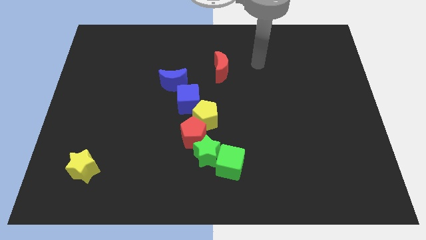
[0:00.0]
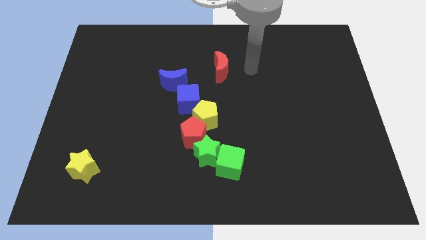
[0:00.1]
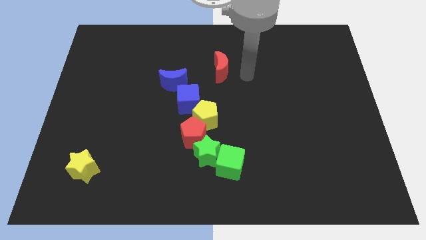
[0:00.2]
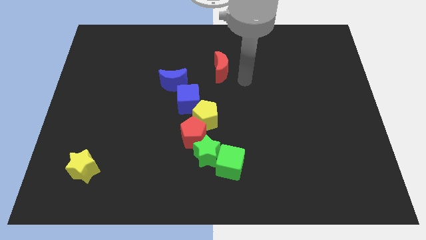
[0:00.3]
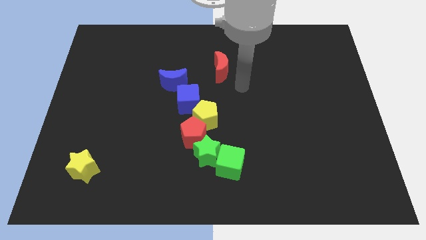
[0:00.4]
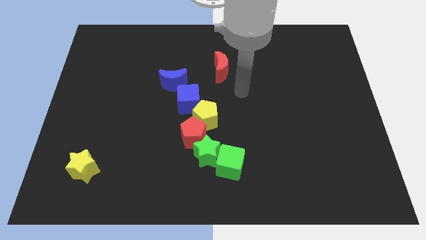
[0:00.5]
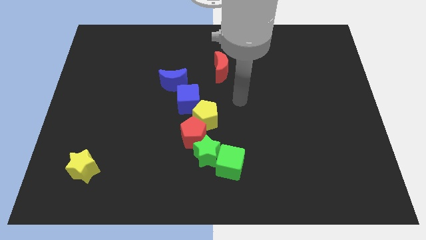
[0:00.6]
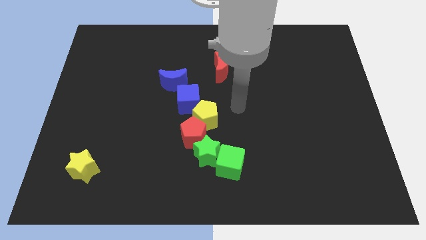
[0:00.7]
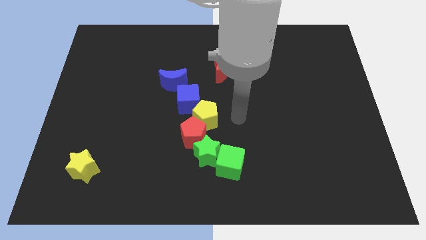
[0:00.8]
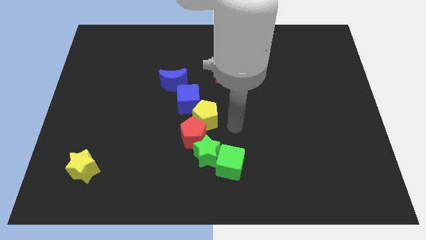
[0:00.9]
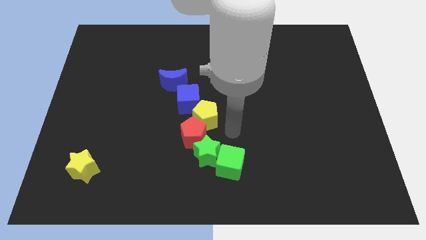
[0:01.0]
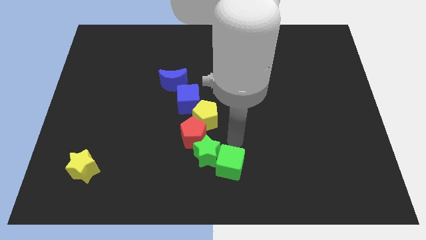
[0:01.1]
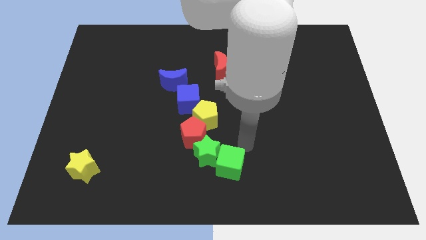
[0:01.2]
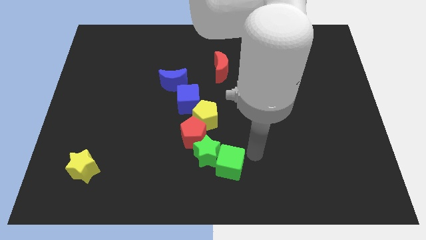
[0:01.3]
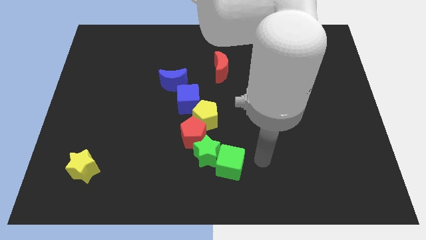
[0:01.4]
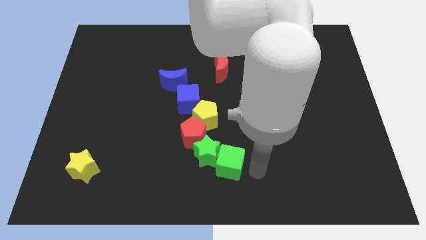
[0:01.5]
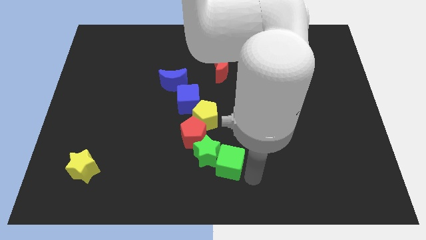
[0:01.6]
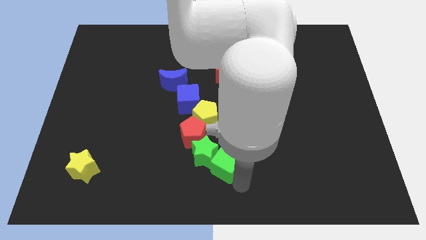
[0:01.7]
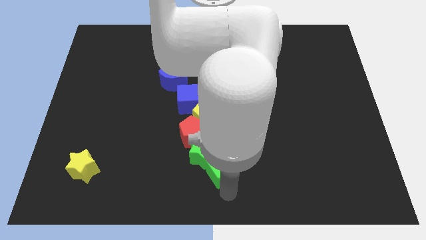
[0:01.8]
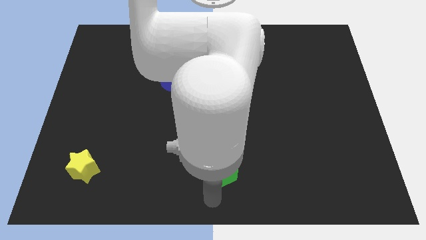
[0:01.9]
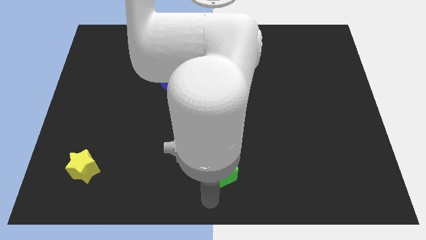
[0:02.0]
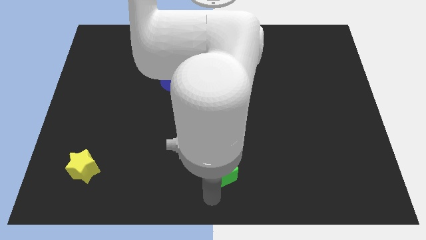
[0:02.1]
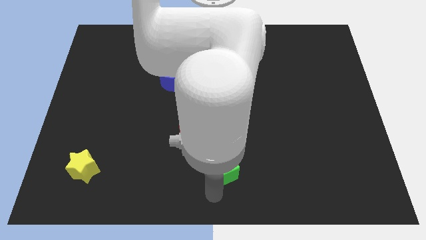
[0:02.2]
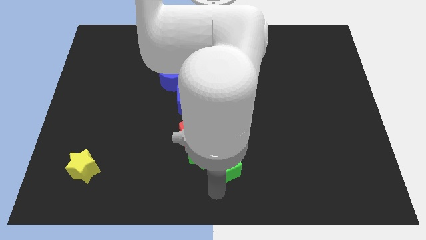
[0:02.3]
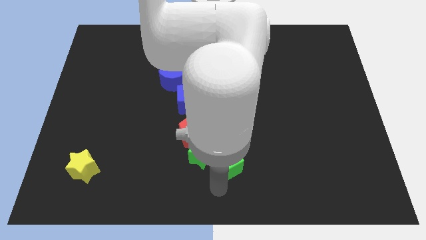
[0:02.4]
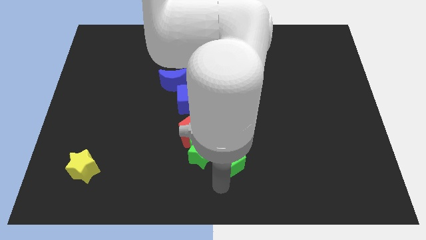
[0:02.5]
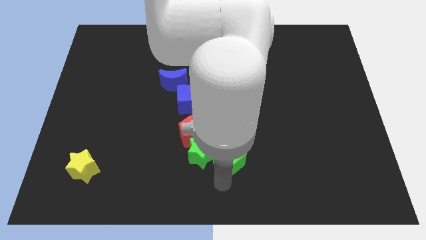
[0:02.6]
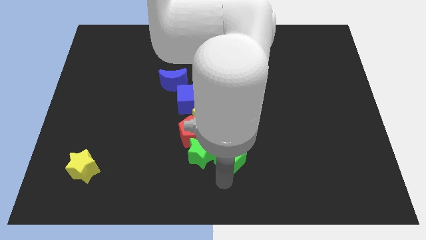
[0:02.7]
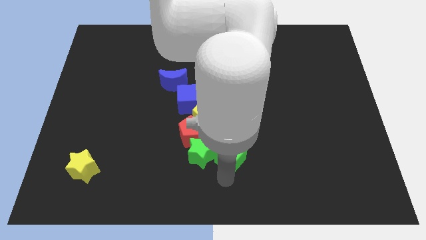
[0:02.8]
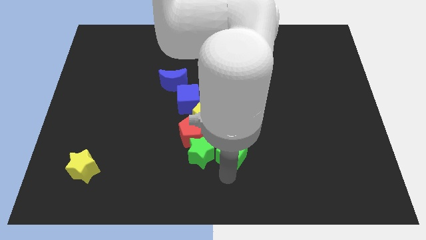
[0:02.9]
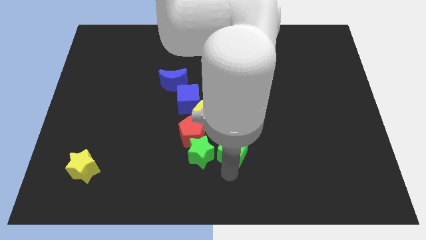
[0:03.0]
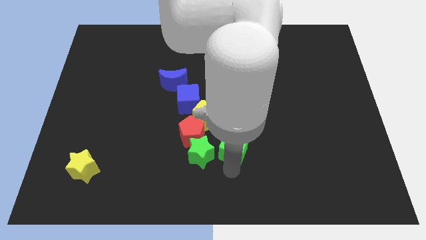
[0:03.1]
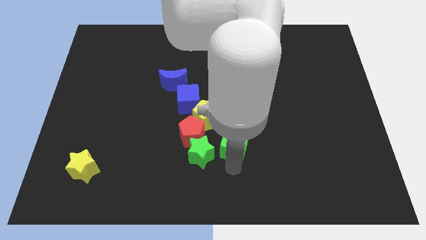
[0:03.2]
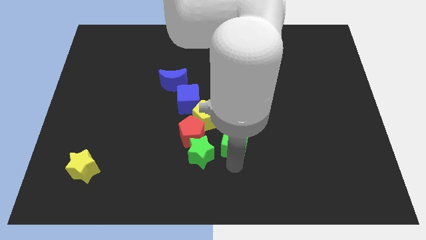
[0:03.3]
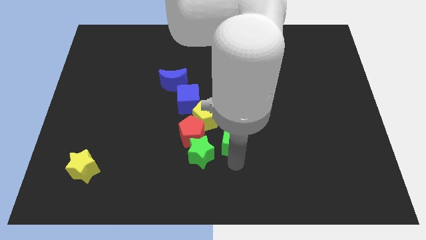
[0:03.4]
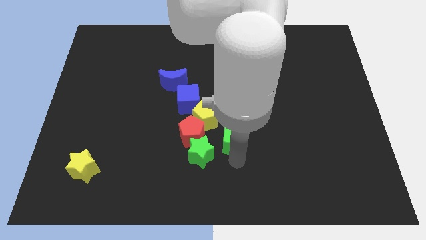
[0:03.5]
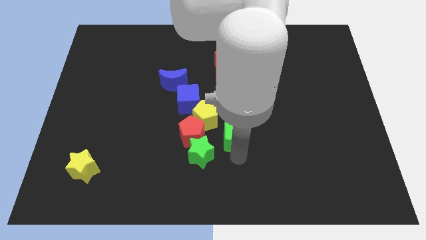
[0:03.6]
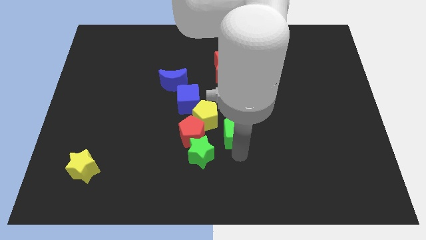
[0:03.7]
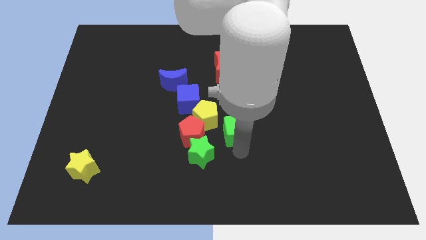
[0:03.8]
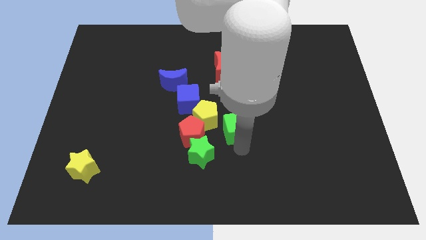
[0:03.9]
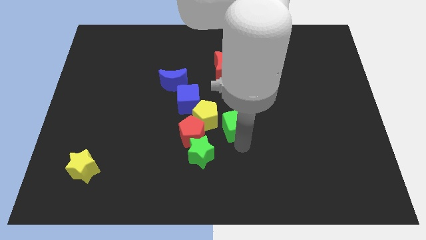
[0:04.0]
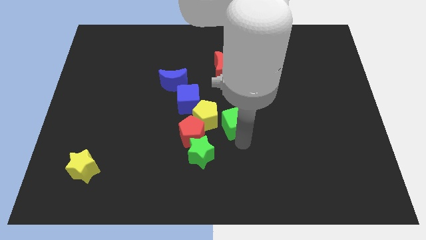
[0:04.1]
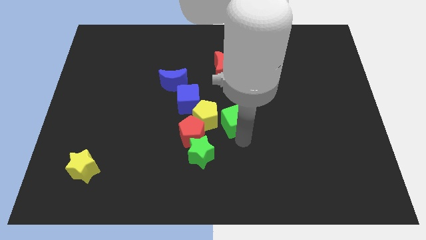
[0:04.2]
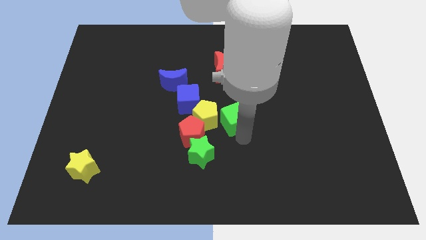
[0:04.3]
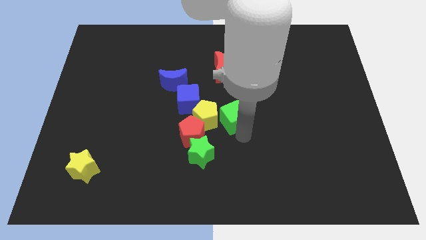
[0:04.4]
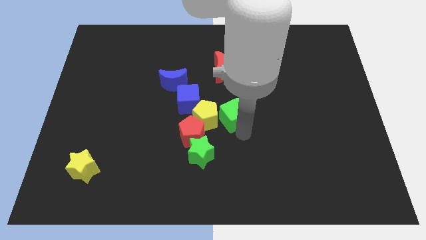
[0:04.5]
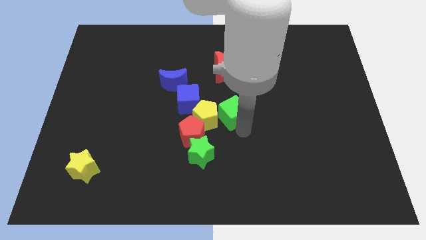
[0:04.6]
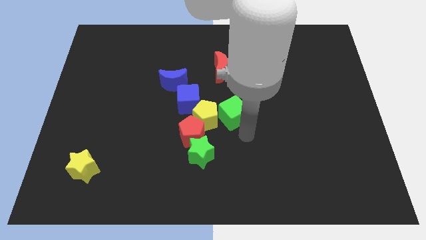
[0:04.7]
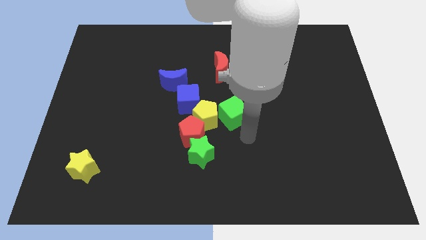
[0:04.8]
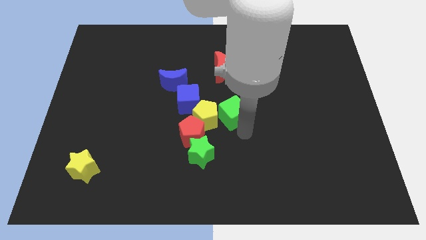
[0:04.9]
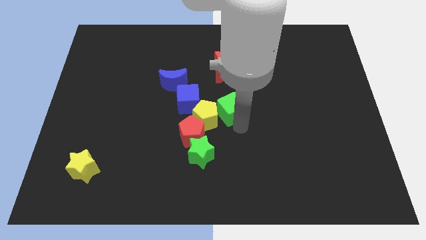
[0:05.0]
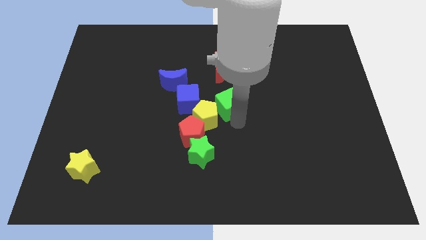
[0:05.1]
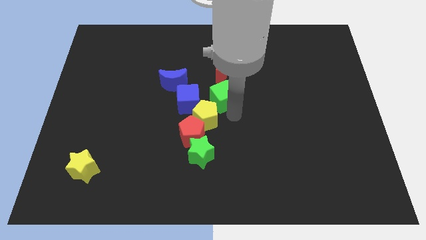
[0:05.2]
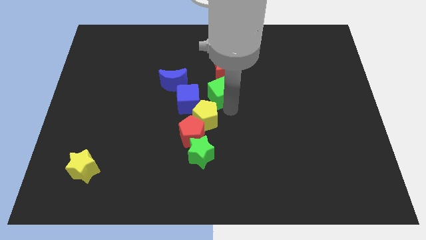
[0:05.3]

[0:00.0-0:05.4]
push the green cube diagonally up and to the right of the blue cube

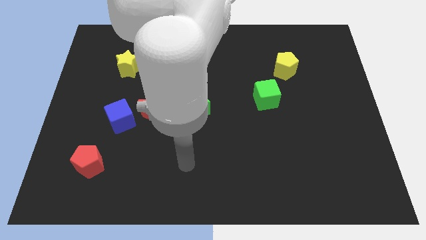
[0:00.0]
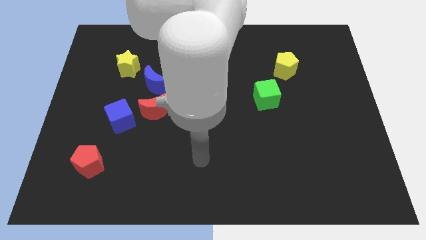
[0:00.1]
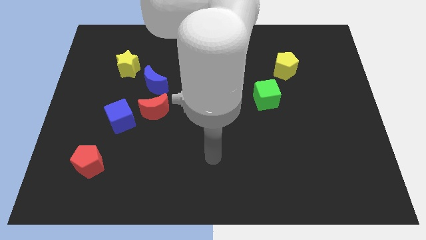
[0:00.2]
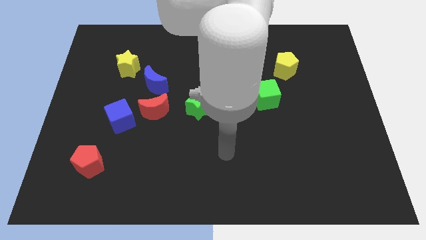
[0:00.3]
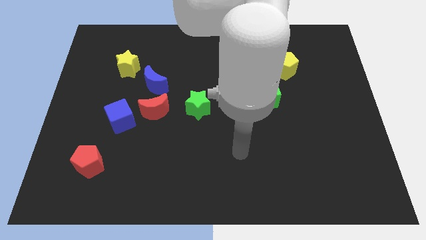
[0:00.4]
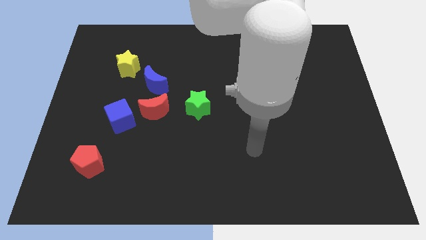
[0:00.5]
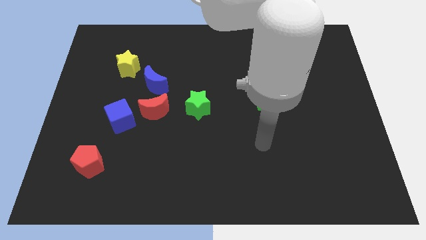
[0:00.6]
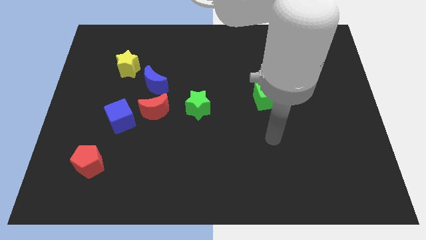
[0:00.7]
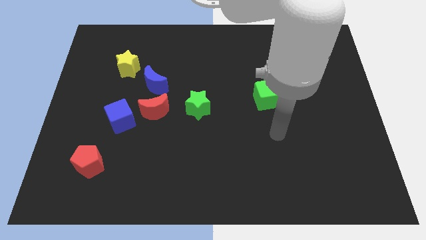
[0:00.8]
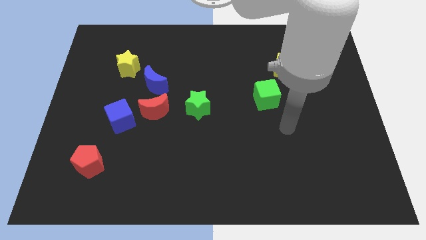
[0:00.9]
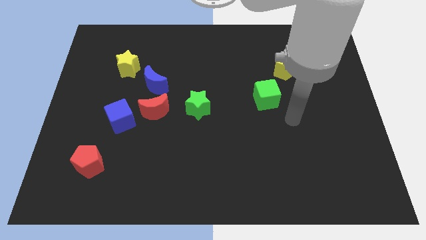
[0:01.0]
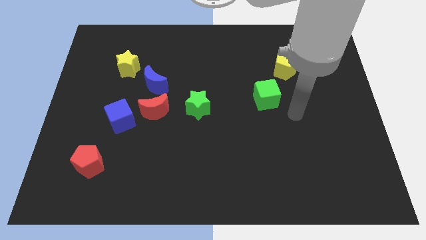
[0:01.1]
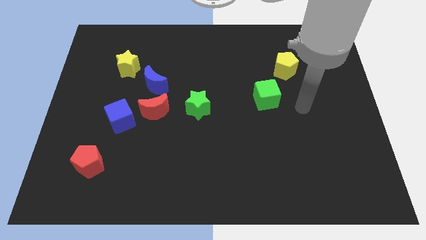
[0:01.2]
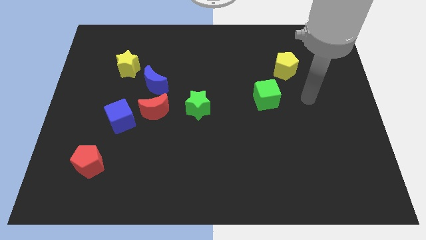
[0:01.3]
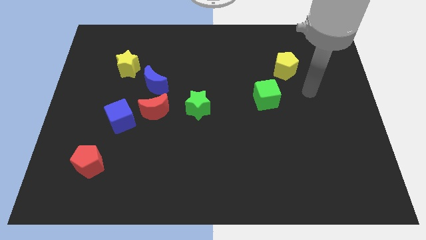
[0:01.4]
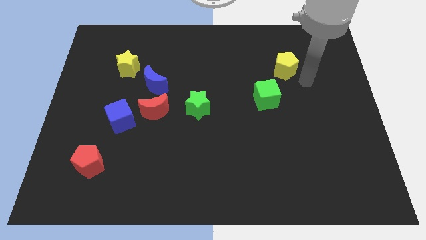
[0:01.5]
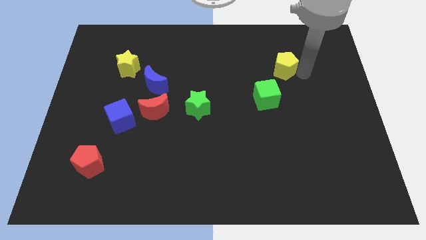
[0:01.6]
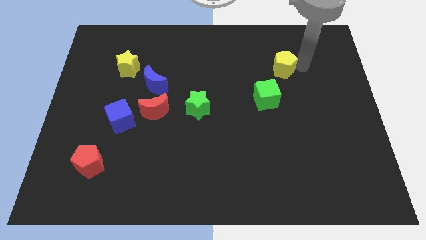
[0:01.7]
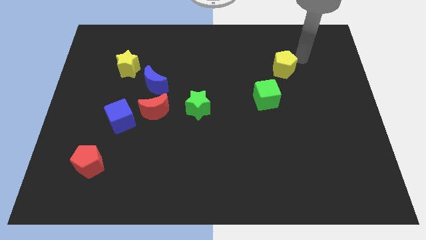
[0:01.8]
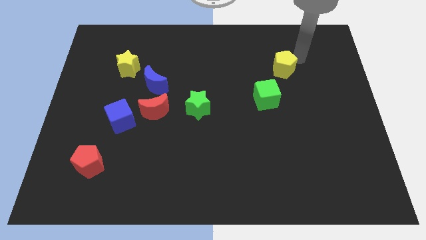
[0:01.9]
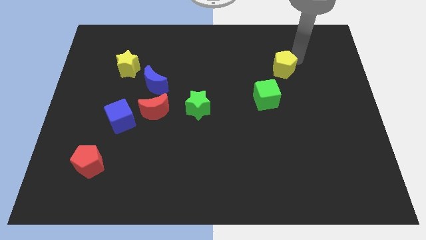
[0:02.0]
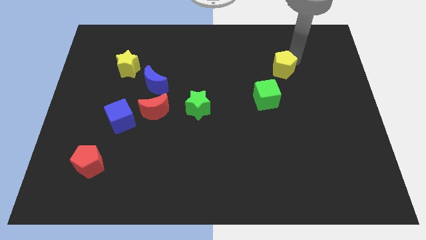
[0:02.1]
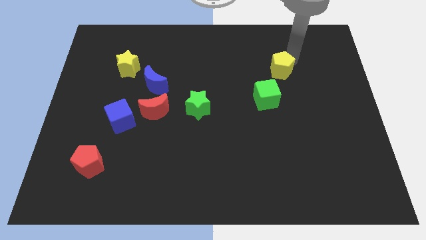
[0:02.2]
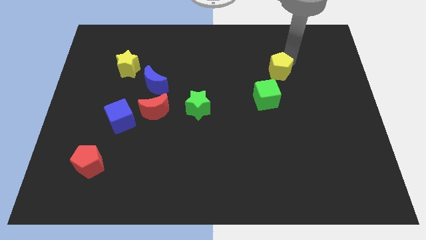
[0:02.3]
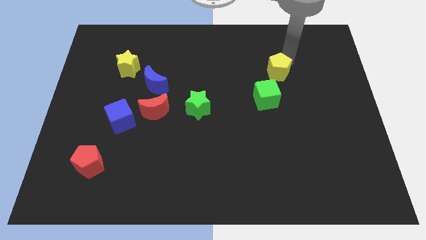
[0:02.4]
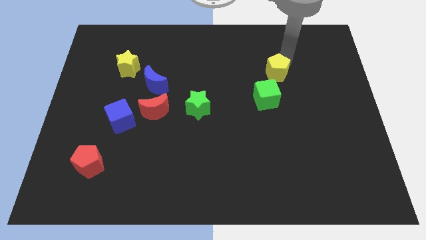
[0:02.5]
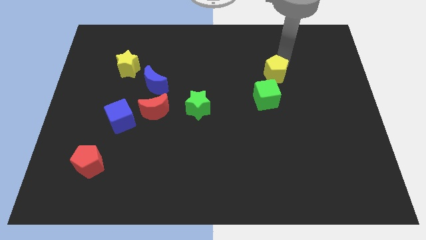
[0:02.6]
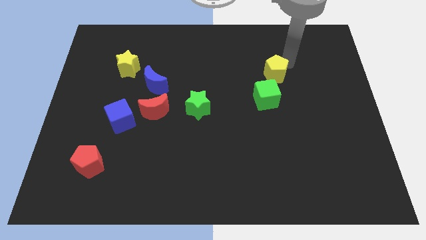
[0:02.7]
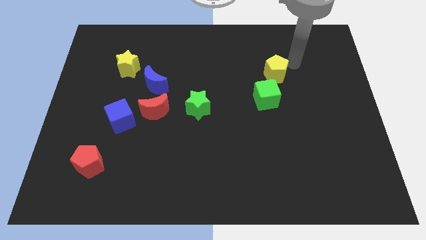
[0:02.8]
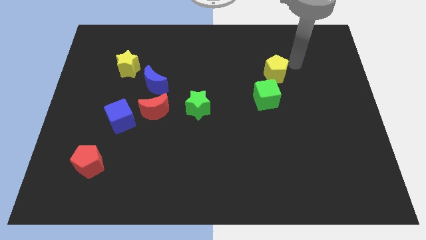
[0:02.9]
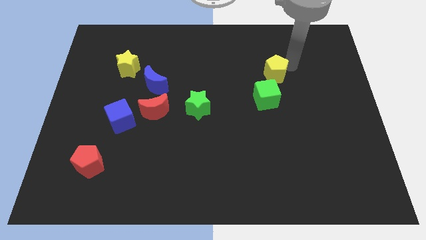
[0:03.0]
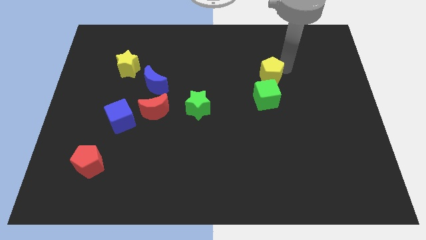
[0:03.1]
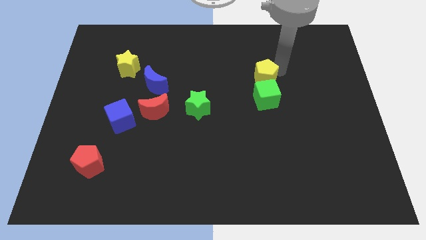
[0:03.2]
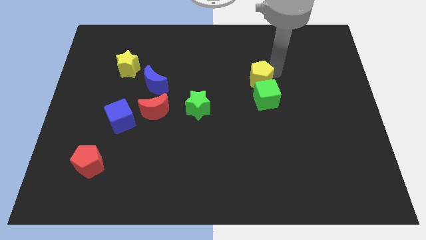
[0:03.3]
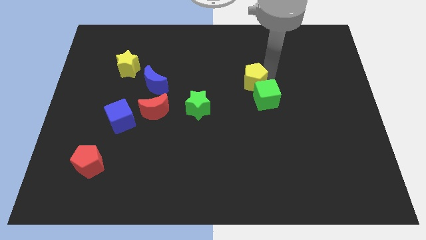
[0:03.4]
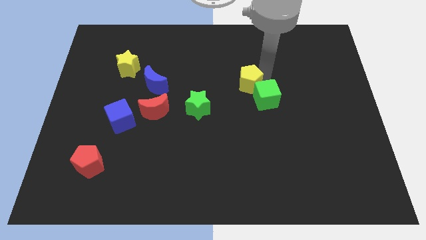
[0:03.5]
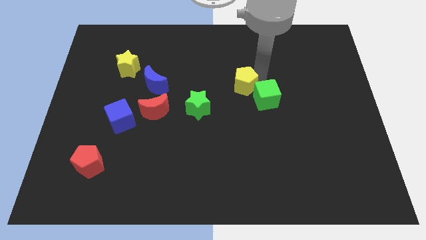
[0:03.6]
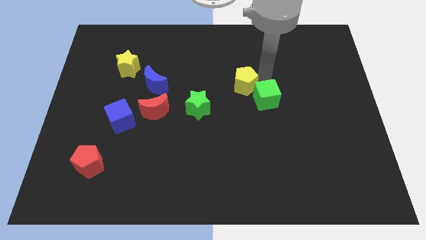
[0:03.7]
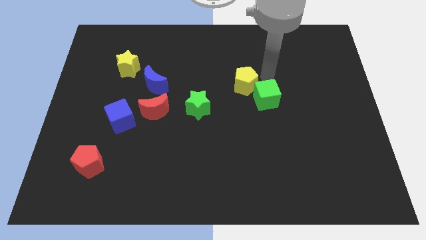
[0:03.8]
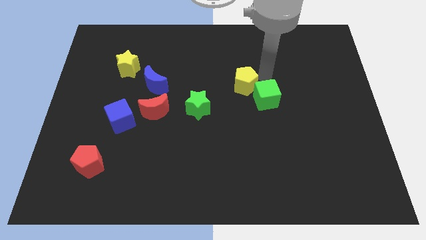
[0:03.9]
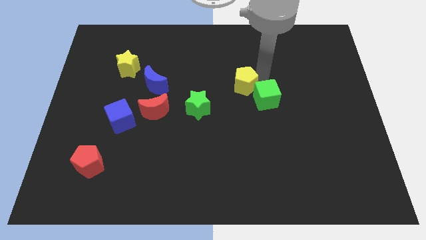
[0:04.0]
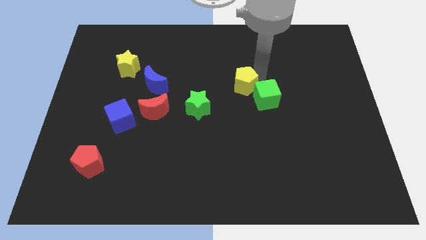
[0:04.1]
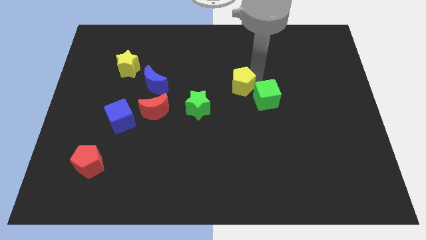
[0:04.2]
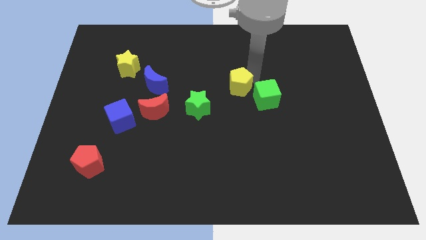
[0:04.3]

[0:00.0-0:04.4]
put the yellow pentagon diagonally up and to the right of the green star
